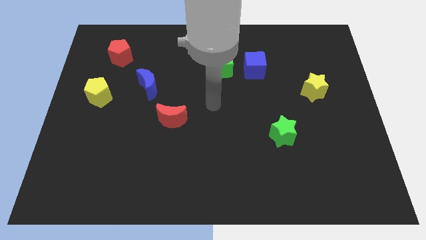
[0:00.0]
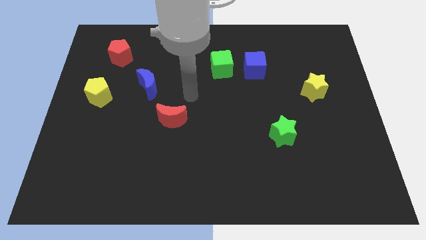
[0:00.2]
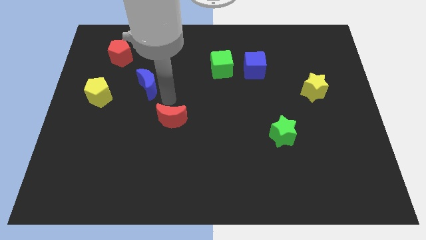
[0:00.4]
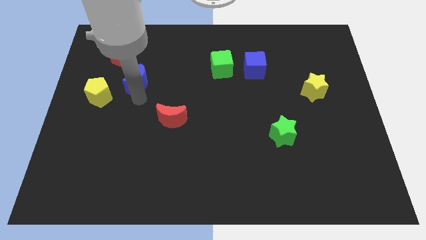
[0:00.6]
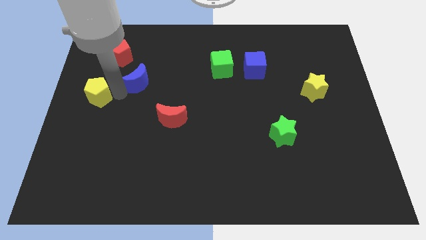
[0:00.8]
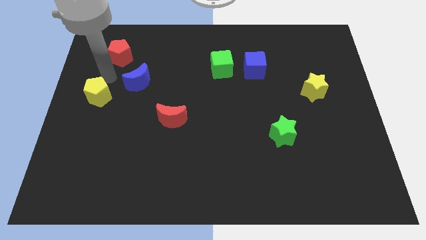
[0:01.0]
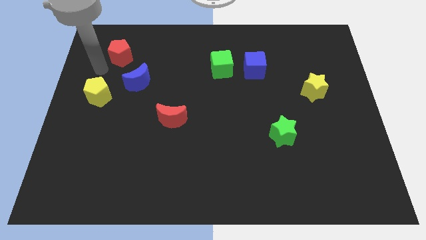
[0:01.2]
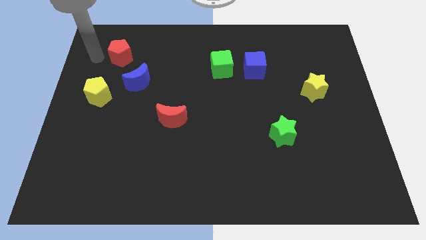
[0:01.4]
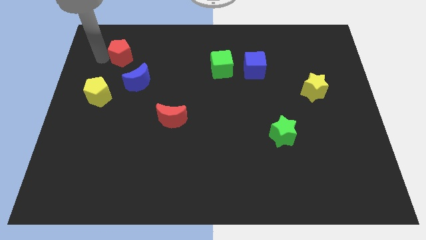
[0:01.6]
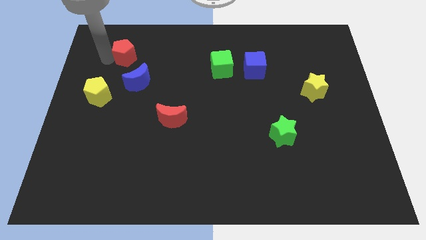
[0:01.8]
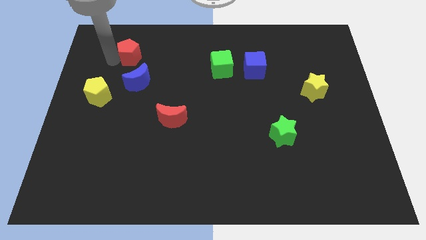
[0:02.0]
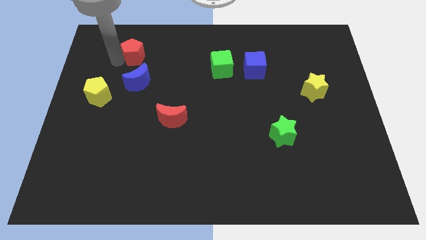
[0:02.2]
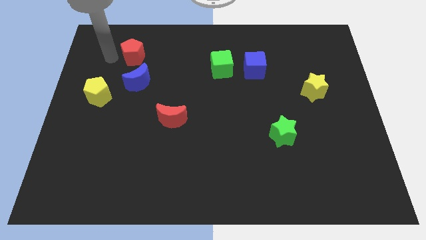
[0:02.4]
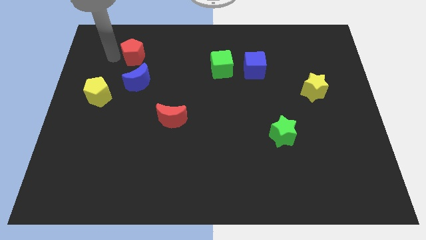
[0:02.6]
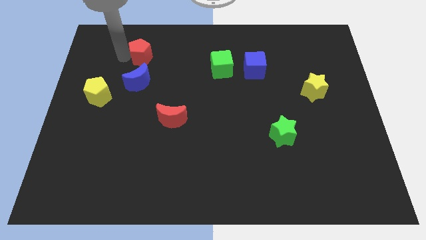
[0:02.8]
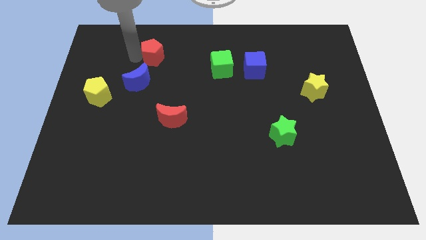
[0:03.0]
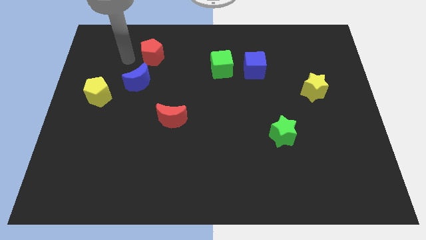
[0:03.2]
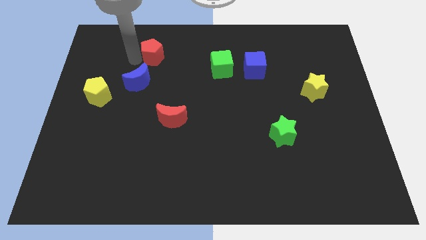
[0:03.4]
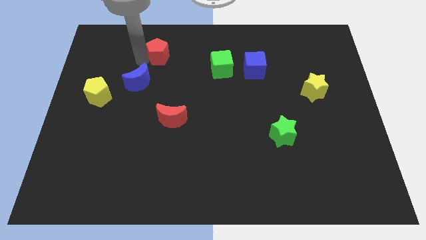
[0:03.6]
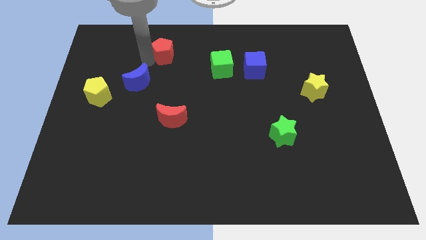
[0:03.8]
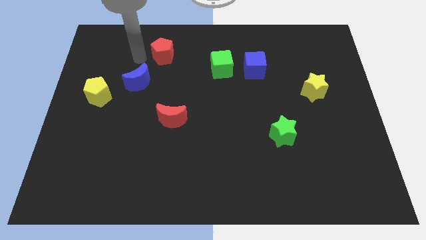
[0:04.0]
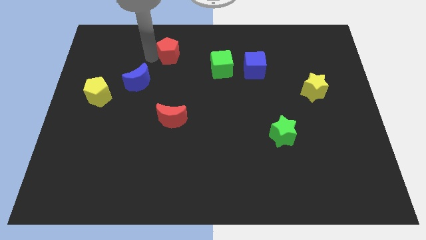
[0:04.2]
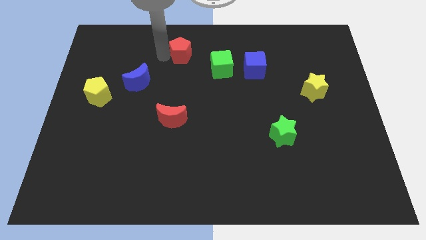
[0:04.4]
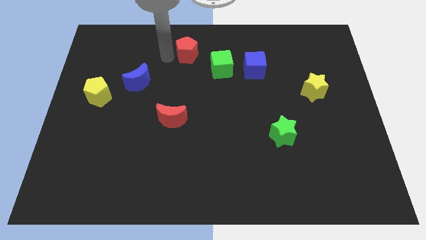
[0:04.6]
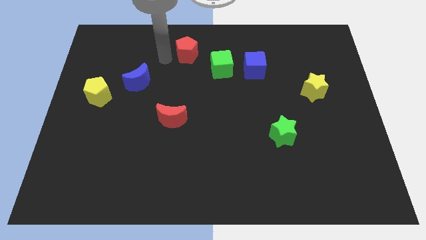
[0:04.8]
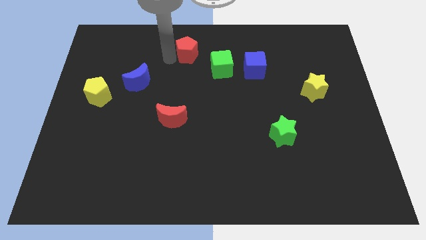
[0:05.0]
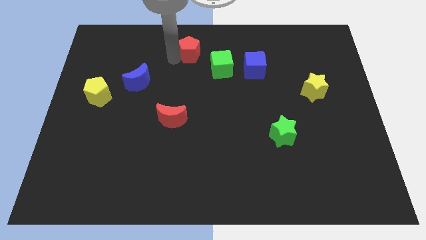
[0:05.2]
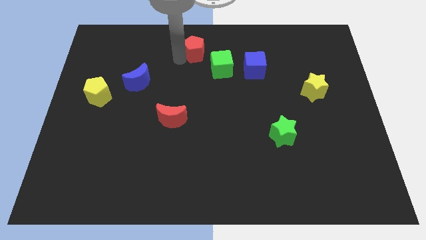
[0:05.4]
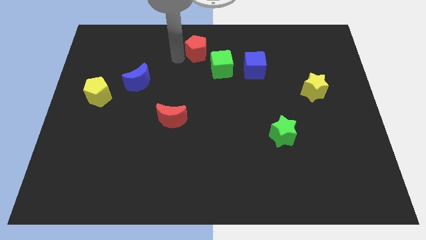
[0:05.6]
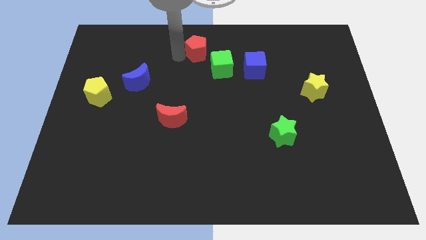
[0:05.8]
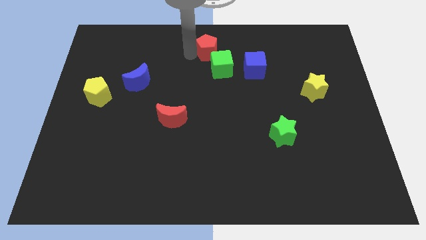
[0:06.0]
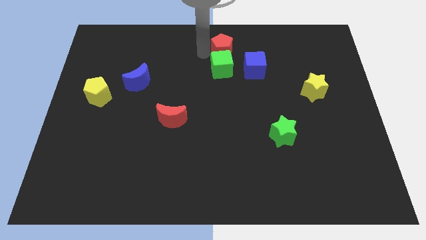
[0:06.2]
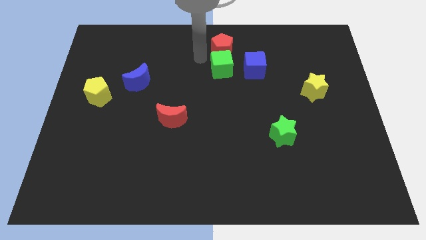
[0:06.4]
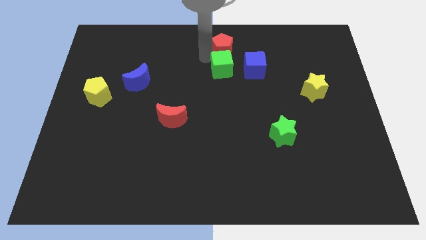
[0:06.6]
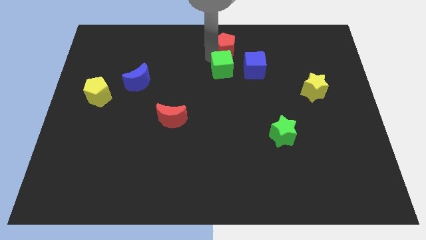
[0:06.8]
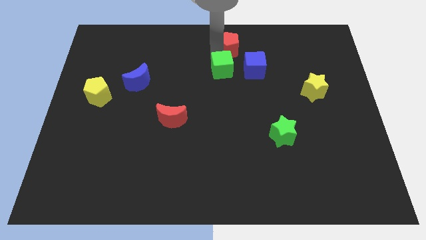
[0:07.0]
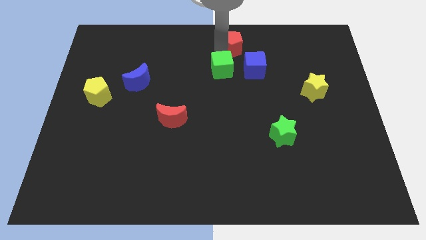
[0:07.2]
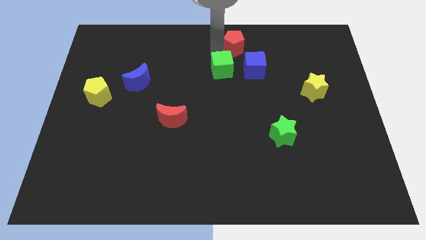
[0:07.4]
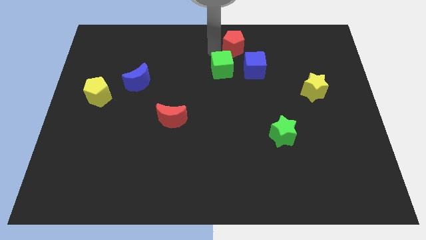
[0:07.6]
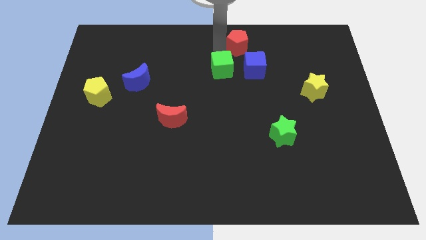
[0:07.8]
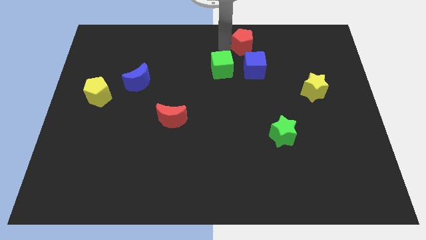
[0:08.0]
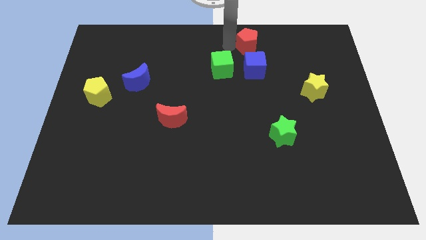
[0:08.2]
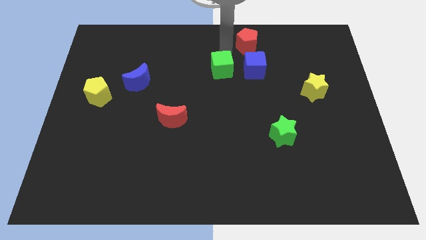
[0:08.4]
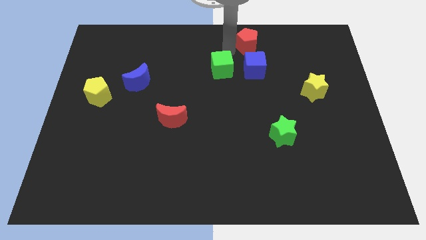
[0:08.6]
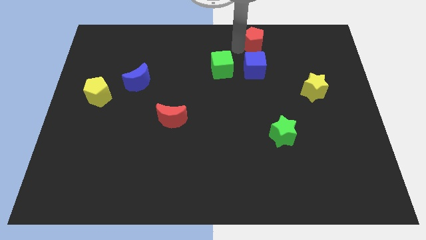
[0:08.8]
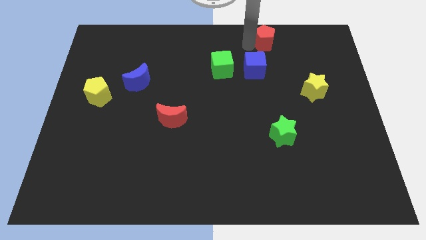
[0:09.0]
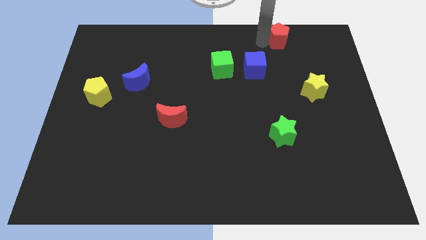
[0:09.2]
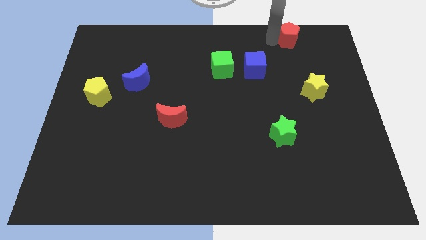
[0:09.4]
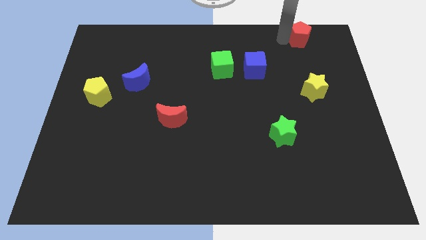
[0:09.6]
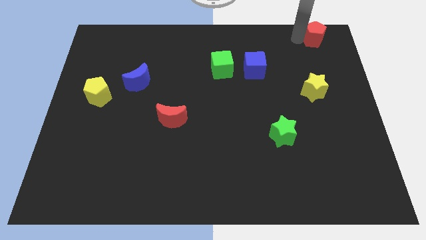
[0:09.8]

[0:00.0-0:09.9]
put the red pentagon to the top right of the board

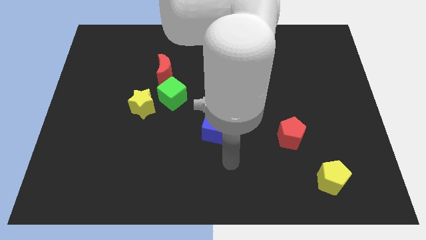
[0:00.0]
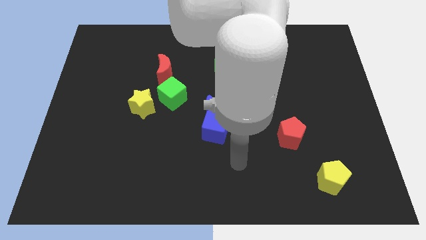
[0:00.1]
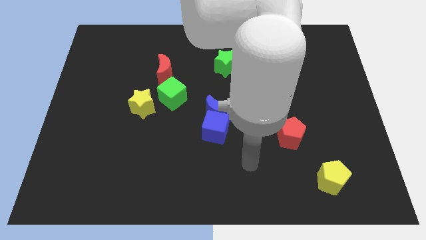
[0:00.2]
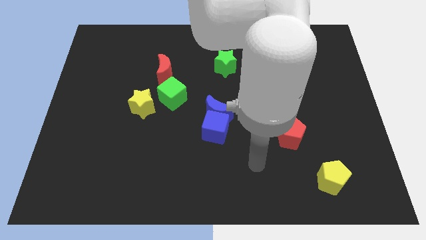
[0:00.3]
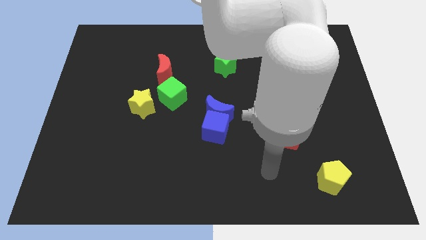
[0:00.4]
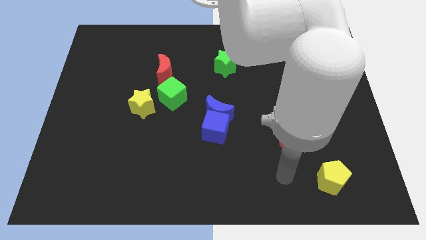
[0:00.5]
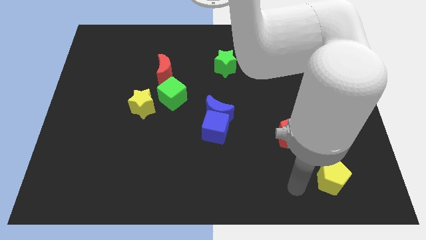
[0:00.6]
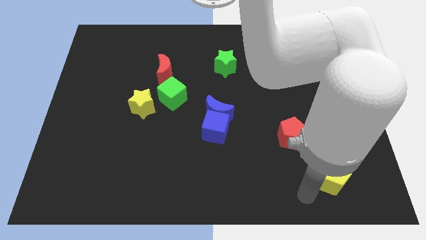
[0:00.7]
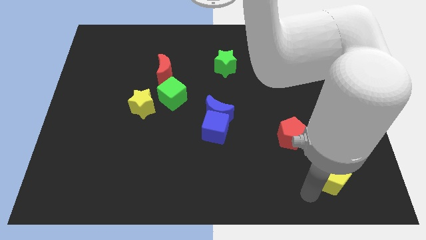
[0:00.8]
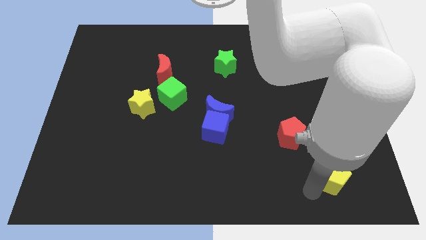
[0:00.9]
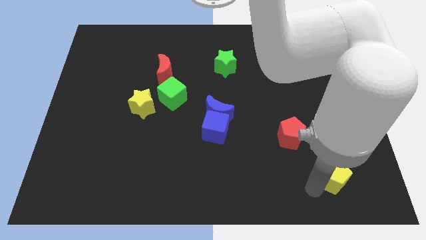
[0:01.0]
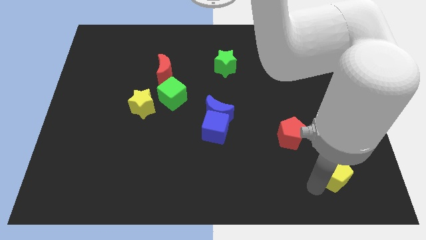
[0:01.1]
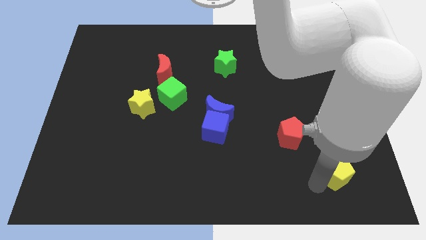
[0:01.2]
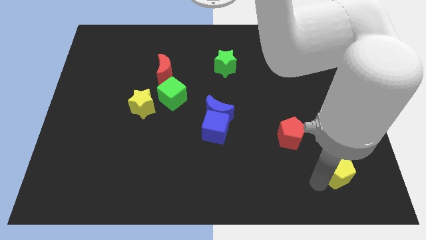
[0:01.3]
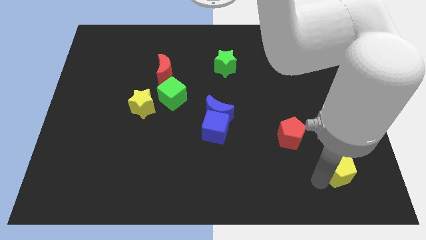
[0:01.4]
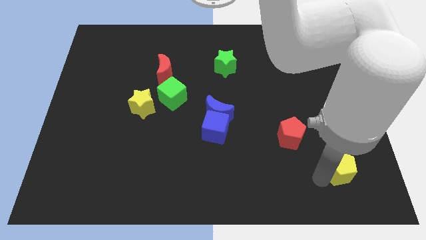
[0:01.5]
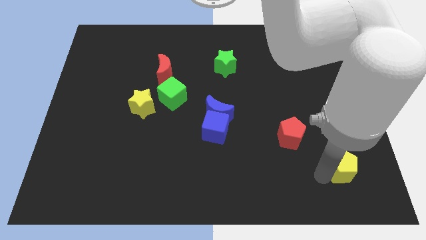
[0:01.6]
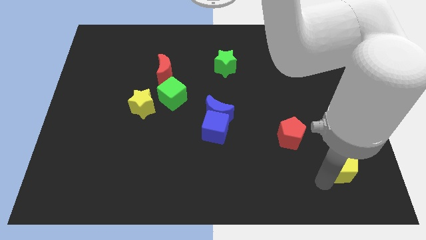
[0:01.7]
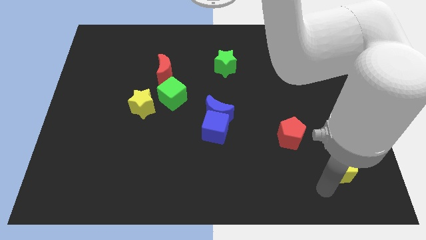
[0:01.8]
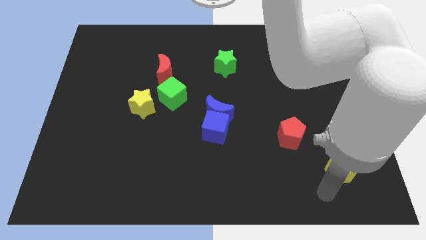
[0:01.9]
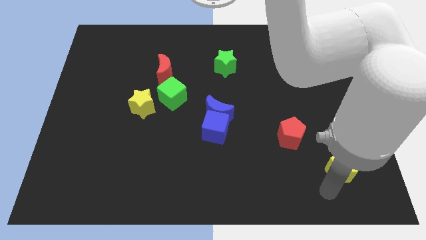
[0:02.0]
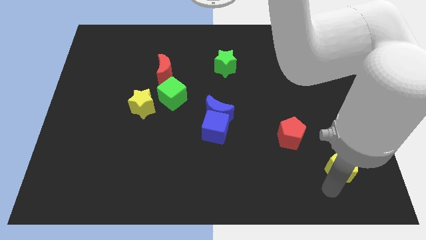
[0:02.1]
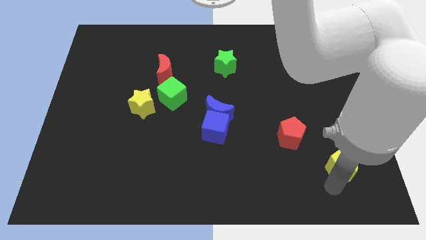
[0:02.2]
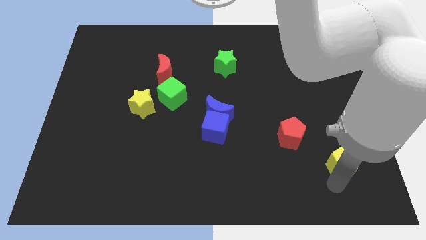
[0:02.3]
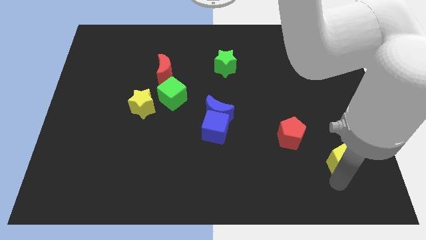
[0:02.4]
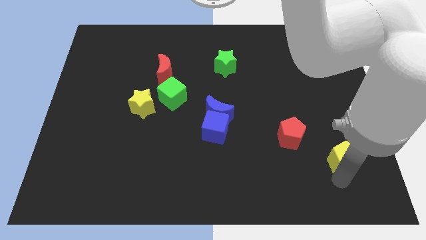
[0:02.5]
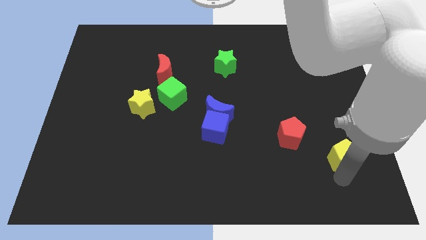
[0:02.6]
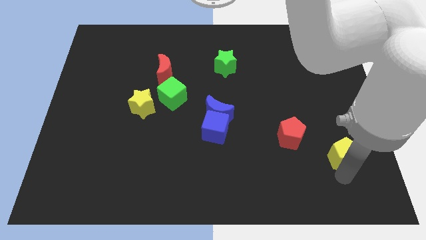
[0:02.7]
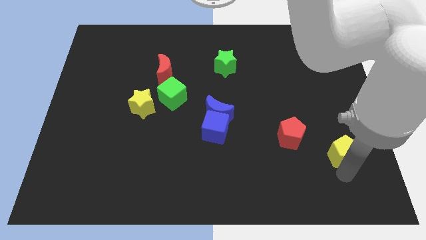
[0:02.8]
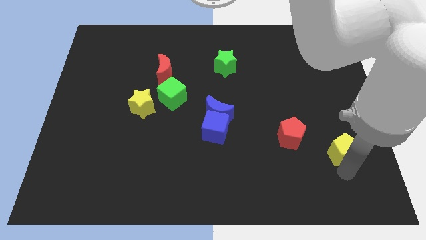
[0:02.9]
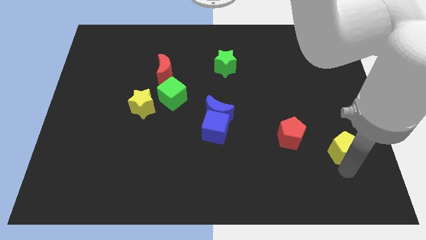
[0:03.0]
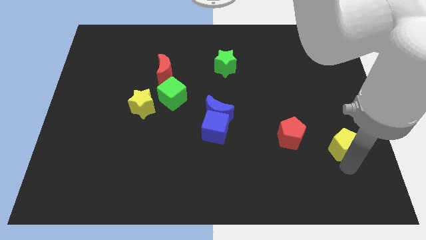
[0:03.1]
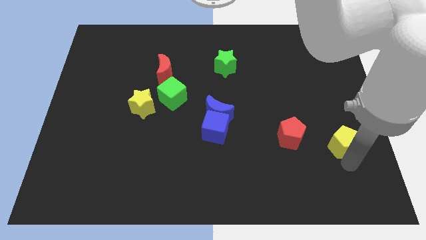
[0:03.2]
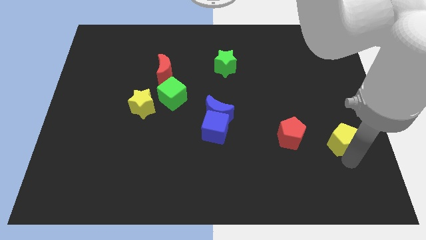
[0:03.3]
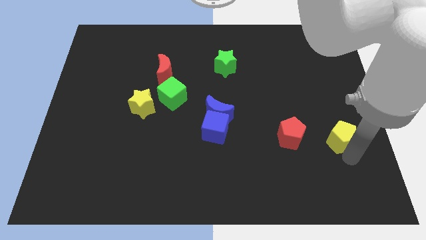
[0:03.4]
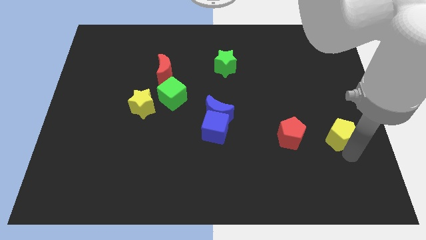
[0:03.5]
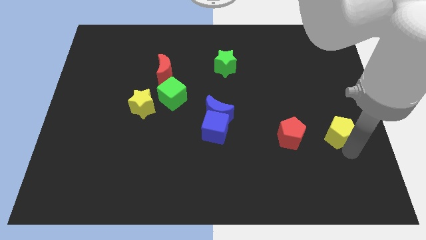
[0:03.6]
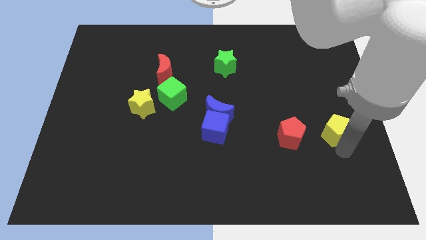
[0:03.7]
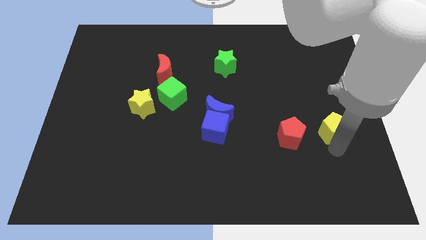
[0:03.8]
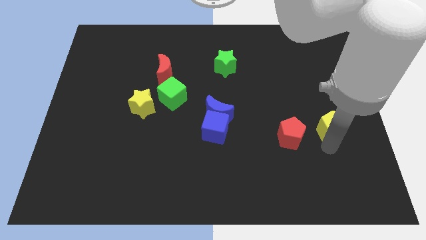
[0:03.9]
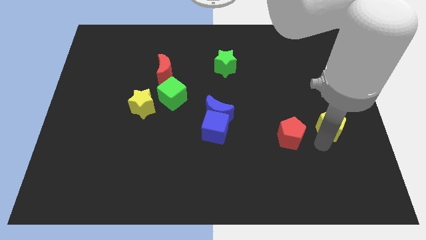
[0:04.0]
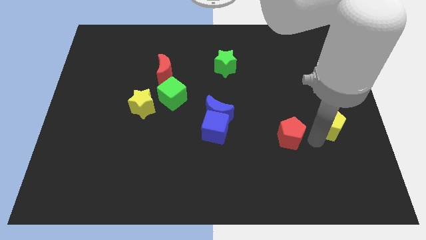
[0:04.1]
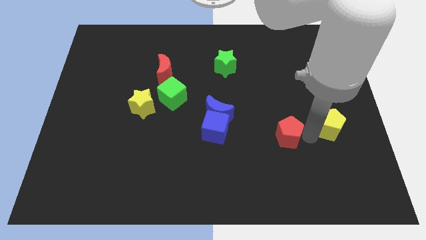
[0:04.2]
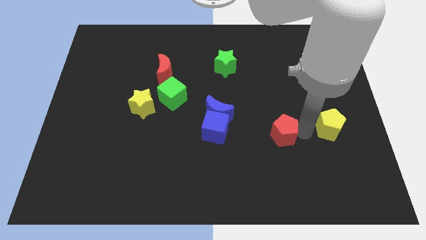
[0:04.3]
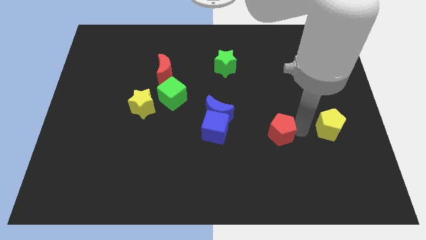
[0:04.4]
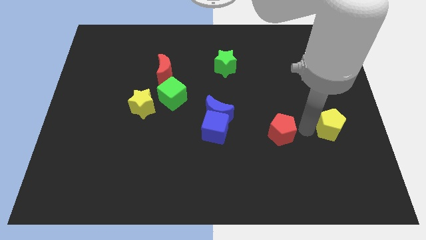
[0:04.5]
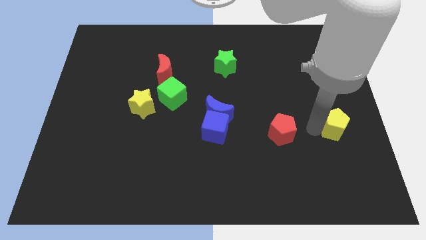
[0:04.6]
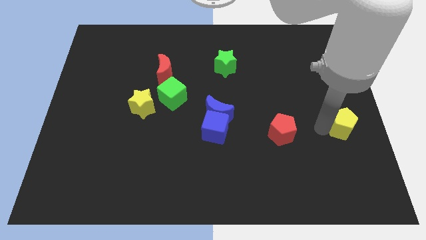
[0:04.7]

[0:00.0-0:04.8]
put the yellow pentagon to the right side
